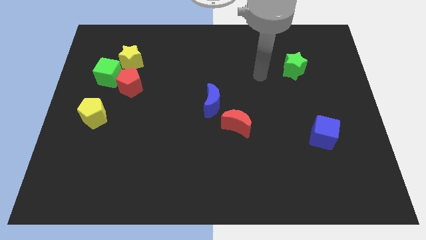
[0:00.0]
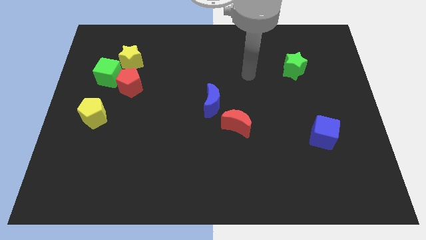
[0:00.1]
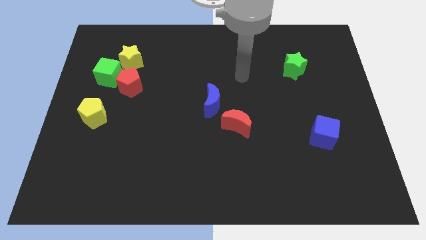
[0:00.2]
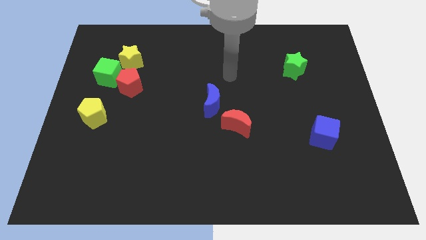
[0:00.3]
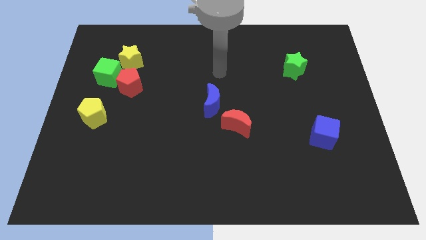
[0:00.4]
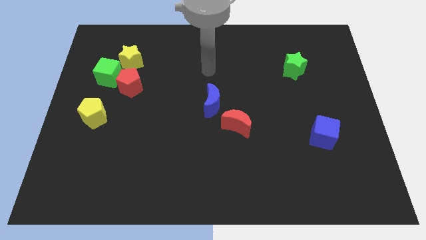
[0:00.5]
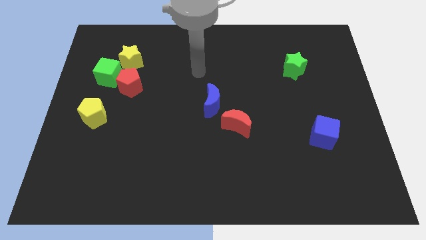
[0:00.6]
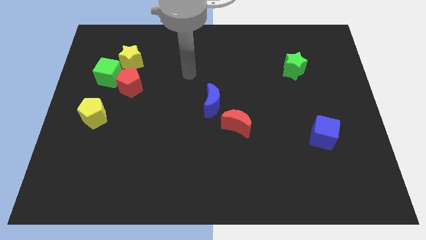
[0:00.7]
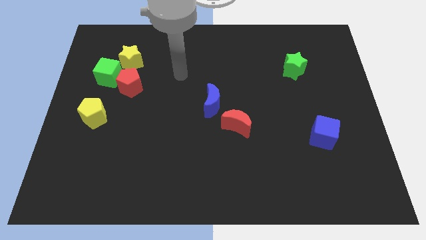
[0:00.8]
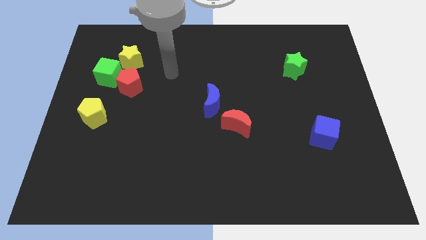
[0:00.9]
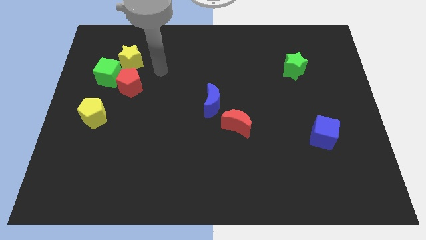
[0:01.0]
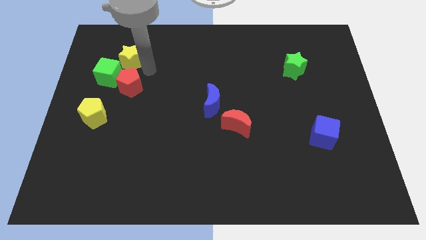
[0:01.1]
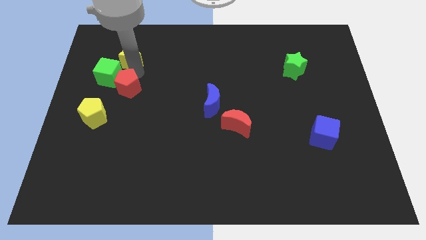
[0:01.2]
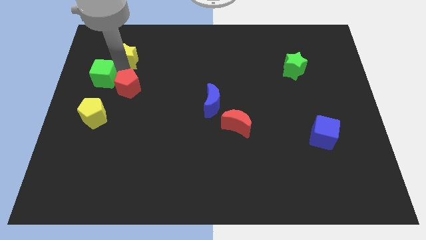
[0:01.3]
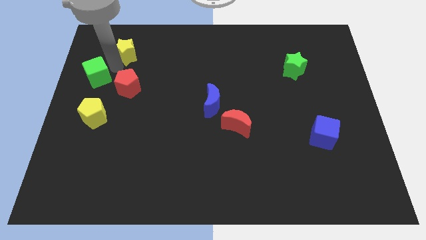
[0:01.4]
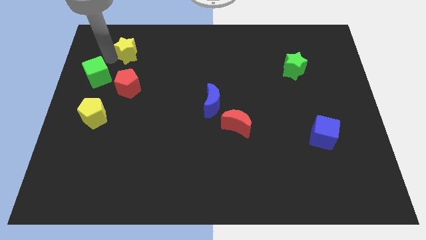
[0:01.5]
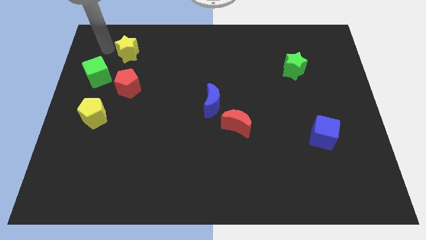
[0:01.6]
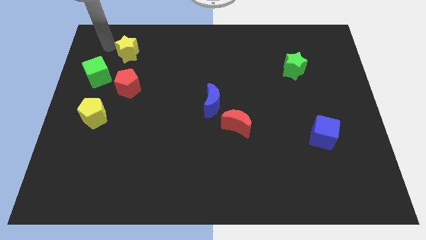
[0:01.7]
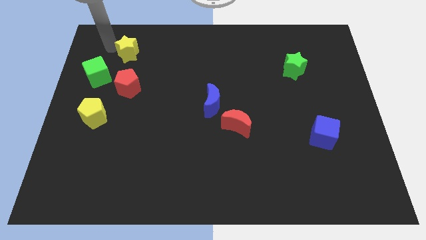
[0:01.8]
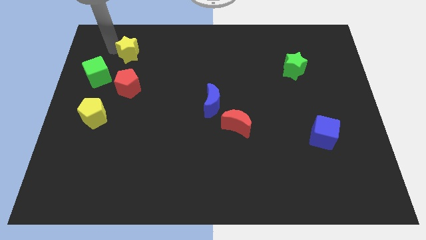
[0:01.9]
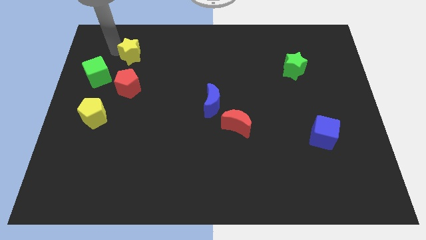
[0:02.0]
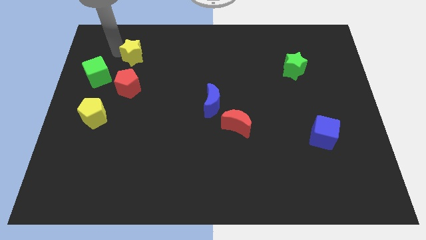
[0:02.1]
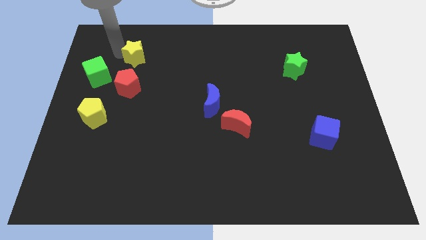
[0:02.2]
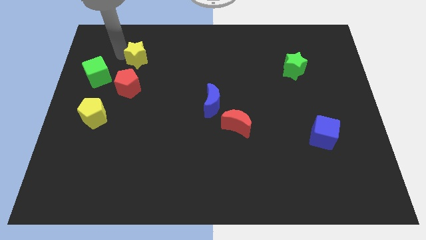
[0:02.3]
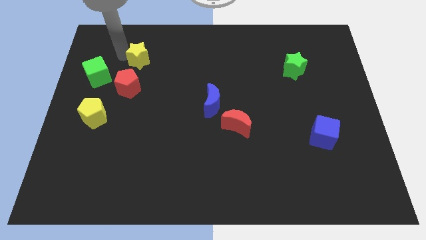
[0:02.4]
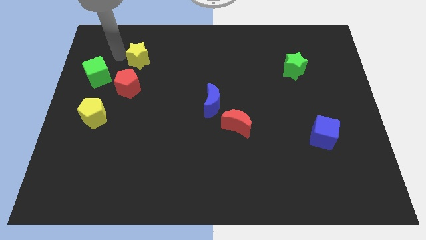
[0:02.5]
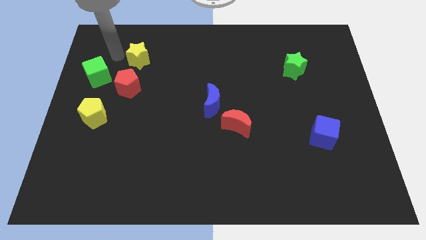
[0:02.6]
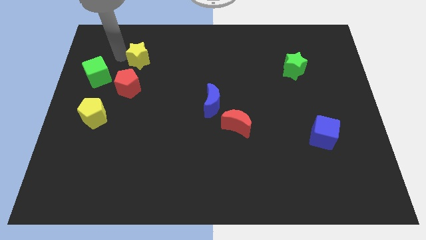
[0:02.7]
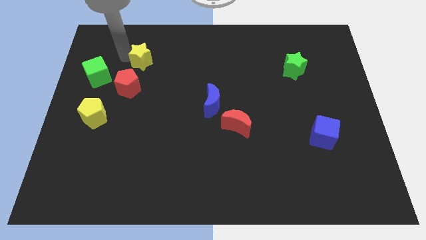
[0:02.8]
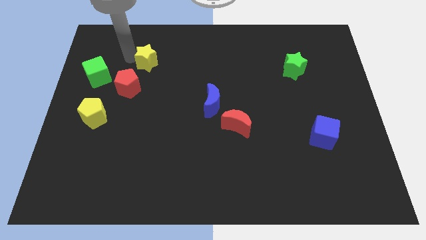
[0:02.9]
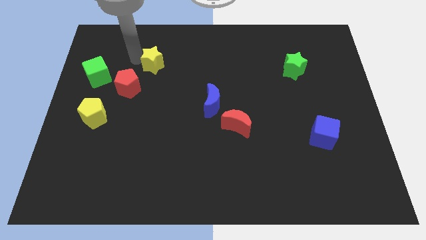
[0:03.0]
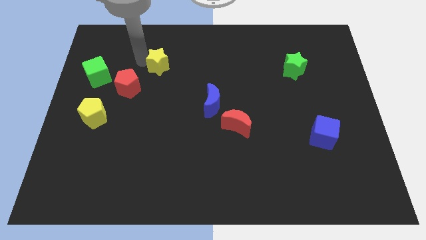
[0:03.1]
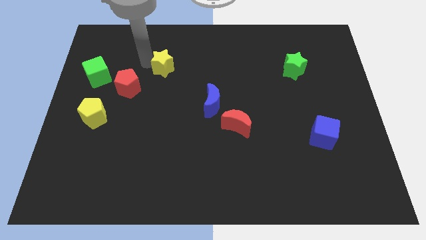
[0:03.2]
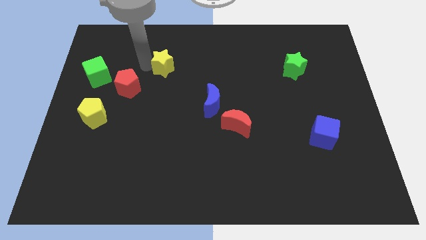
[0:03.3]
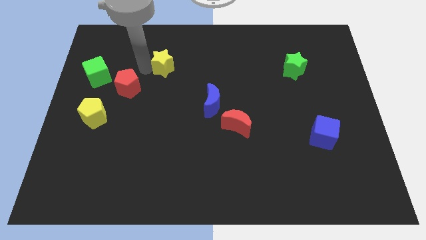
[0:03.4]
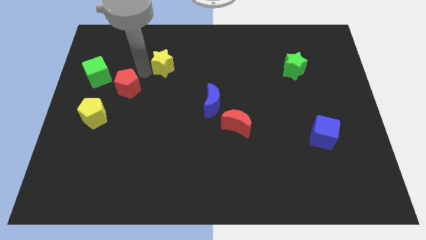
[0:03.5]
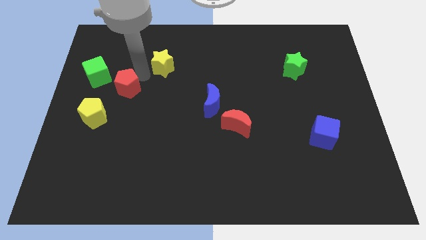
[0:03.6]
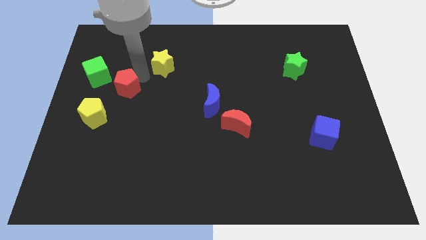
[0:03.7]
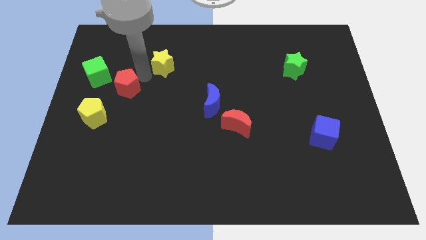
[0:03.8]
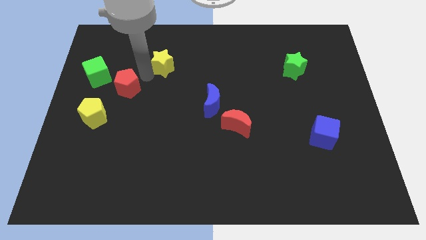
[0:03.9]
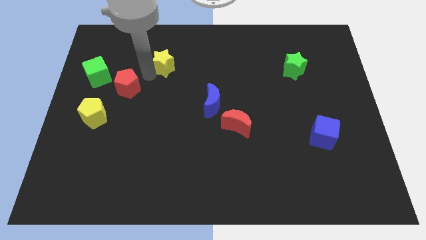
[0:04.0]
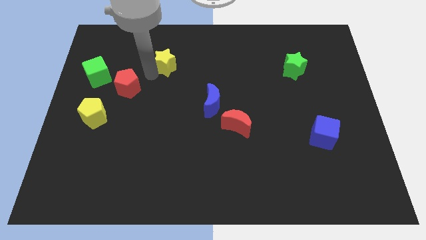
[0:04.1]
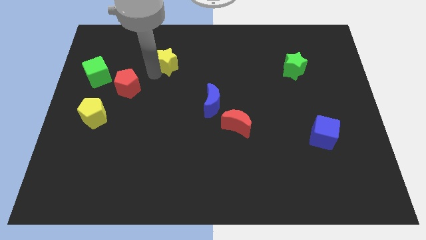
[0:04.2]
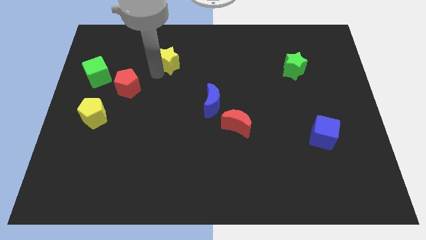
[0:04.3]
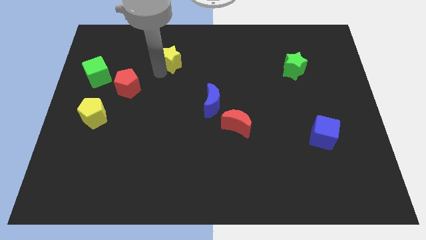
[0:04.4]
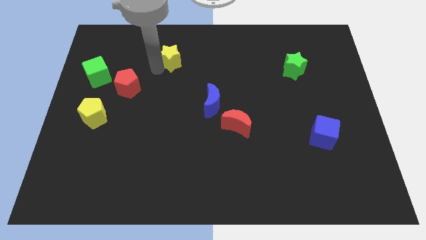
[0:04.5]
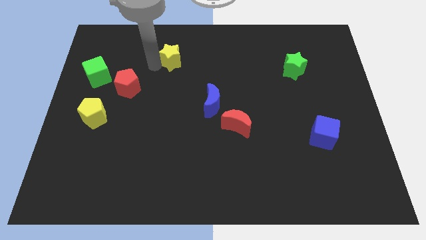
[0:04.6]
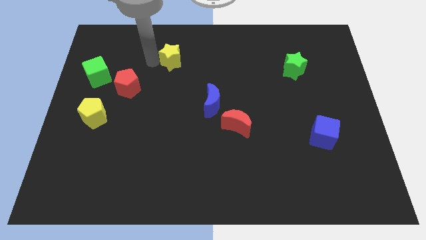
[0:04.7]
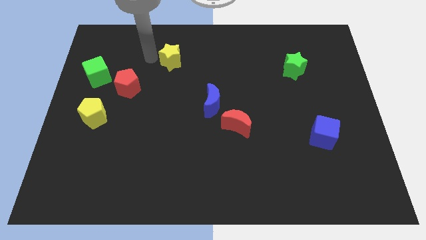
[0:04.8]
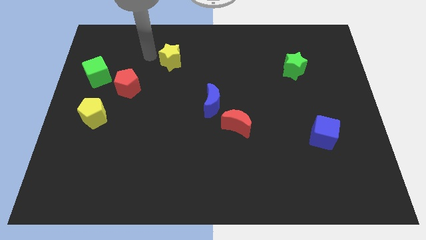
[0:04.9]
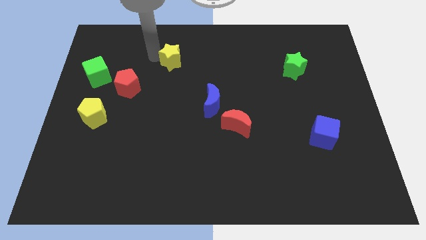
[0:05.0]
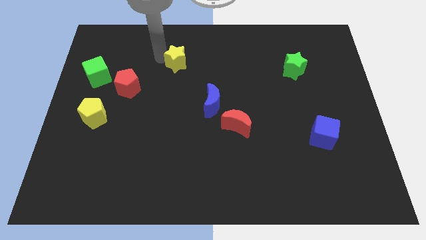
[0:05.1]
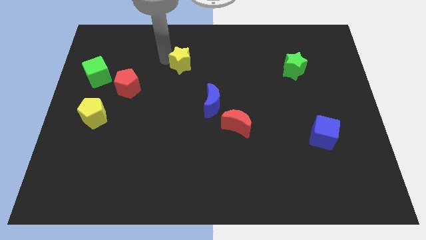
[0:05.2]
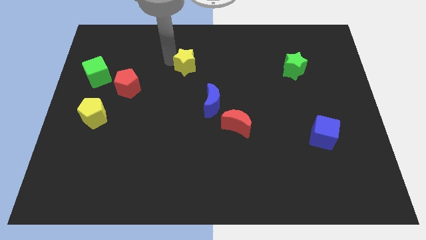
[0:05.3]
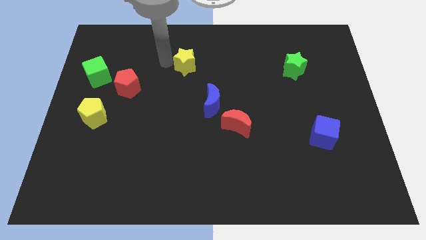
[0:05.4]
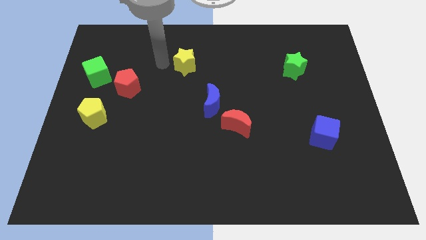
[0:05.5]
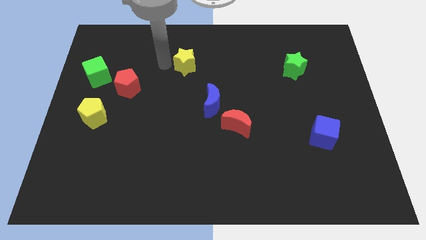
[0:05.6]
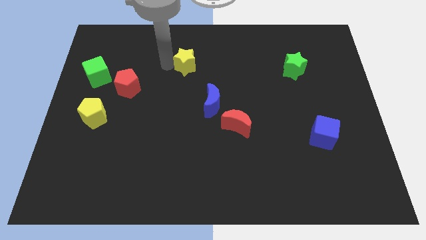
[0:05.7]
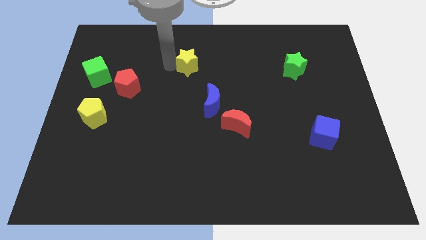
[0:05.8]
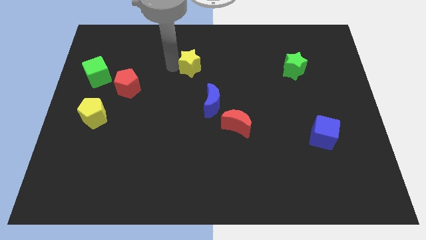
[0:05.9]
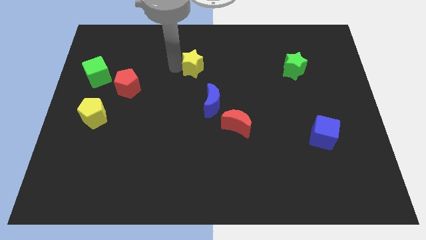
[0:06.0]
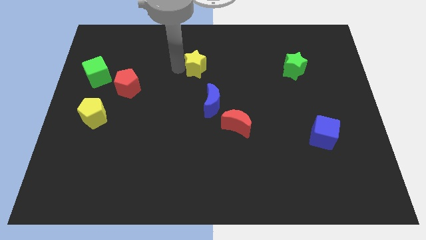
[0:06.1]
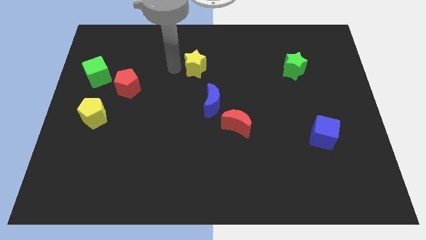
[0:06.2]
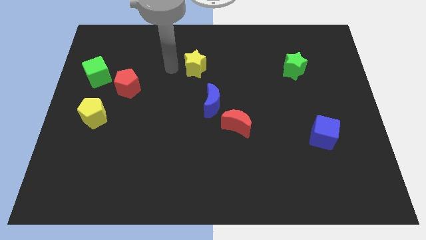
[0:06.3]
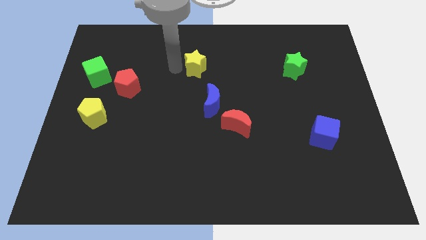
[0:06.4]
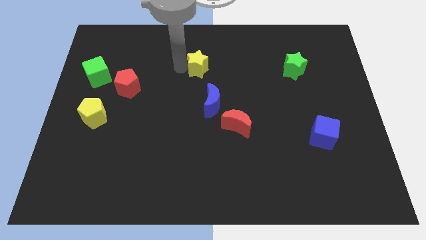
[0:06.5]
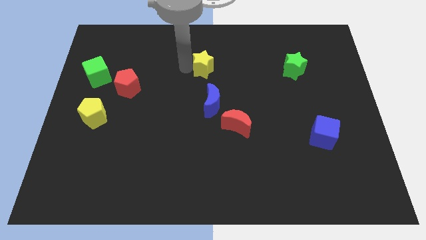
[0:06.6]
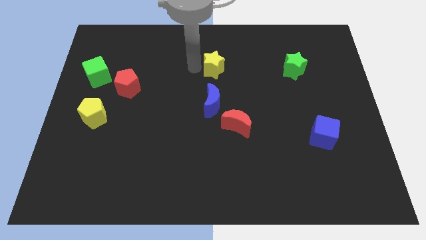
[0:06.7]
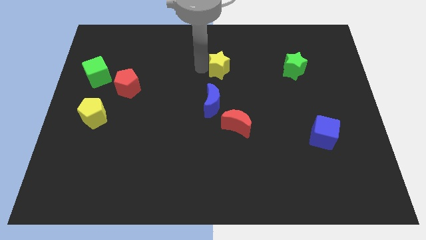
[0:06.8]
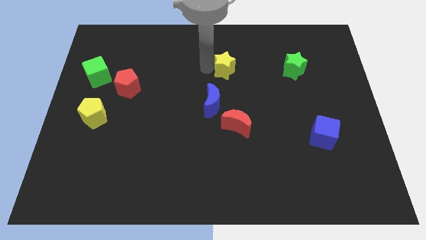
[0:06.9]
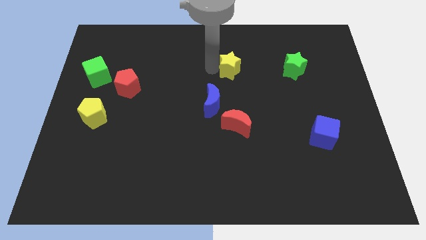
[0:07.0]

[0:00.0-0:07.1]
put the yellow star left of the green star

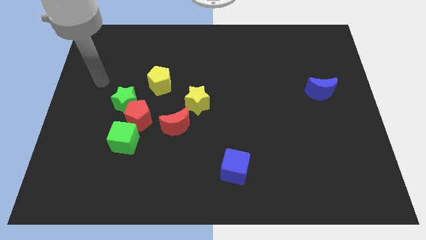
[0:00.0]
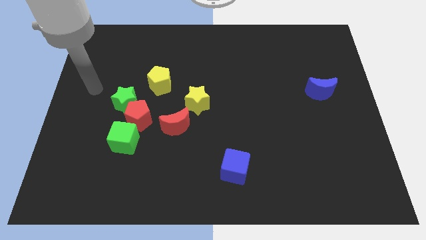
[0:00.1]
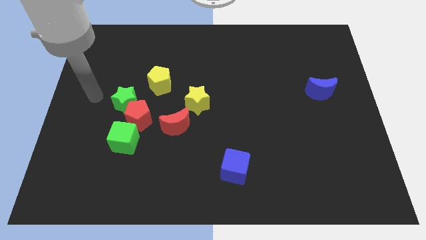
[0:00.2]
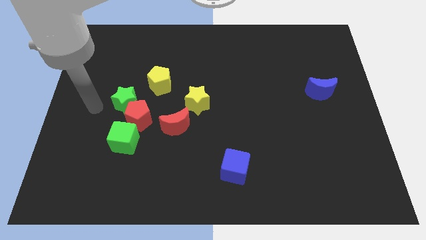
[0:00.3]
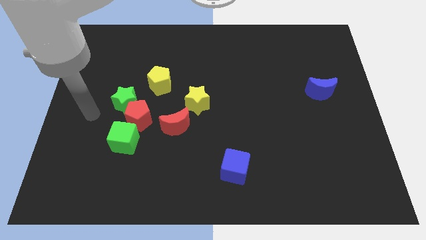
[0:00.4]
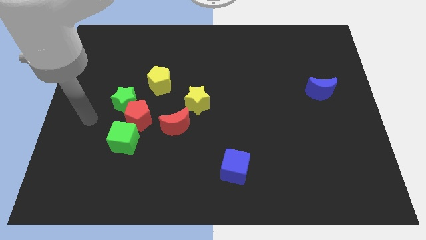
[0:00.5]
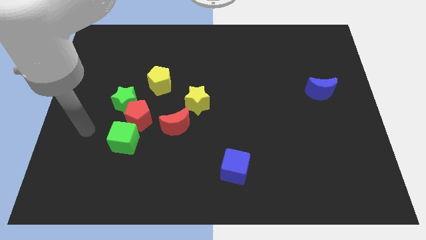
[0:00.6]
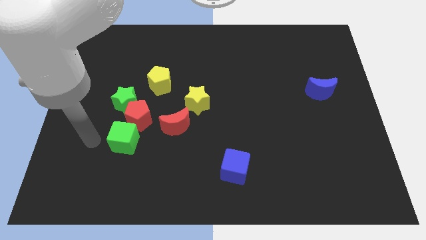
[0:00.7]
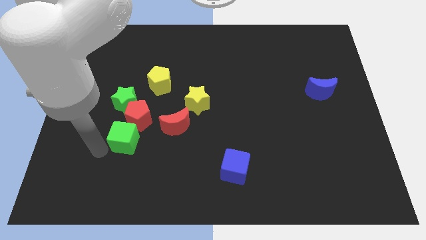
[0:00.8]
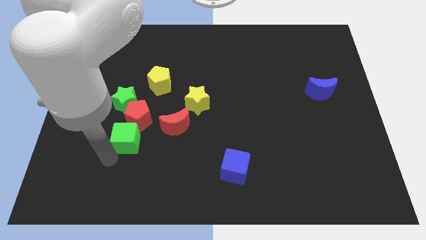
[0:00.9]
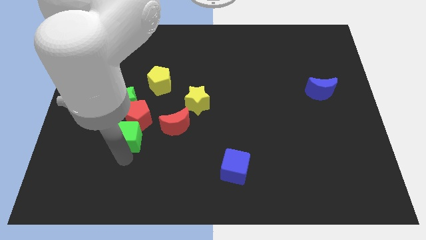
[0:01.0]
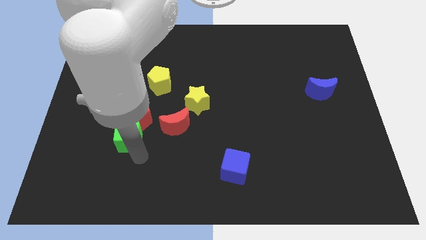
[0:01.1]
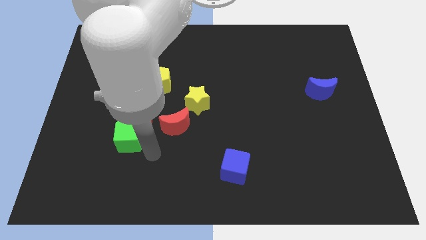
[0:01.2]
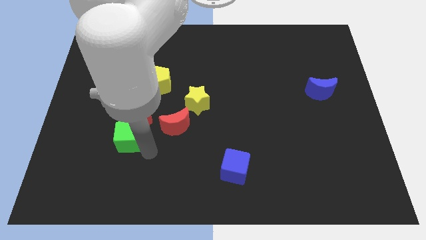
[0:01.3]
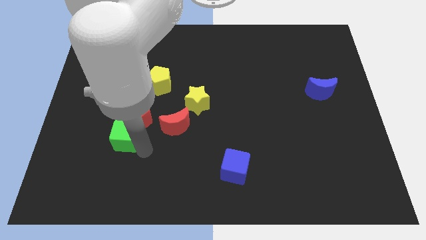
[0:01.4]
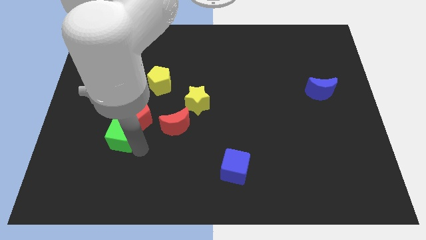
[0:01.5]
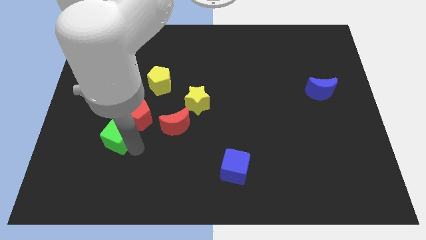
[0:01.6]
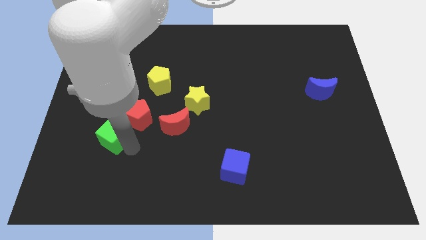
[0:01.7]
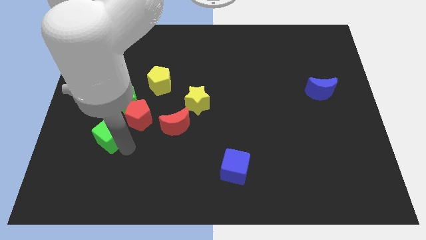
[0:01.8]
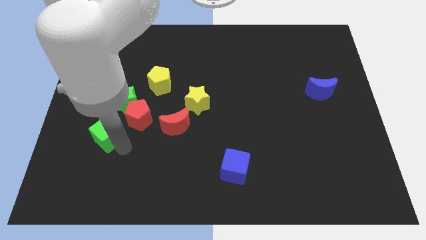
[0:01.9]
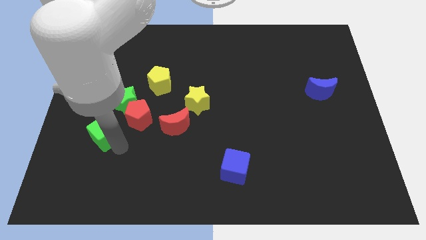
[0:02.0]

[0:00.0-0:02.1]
slide the green cube to the left of the red pentagon
